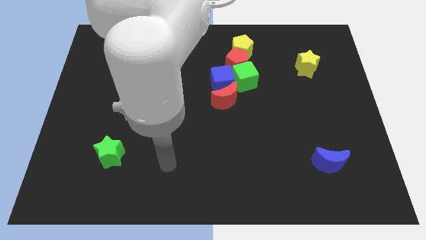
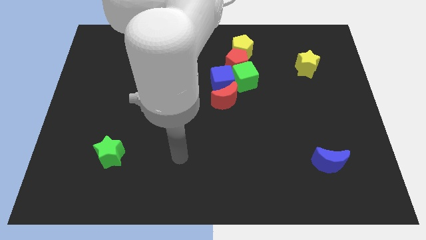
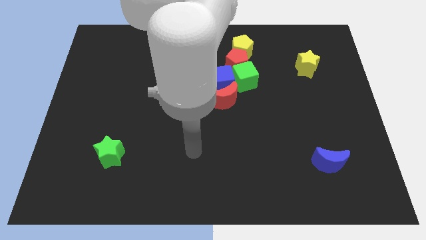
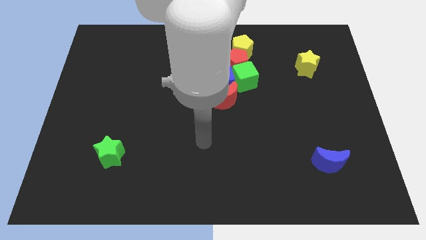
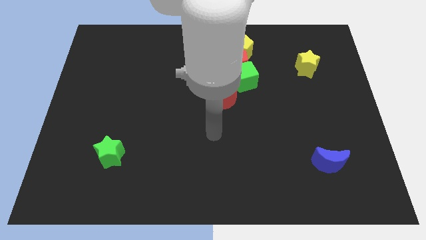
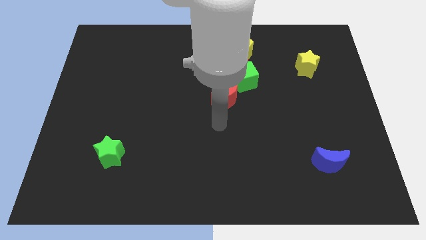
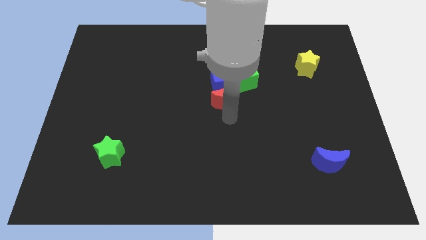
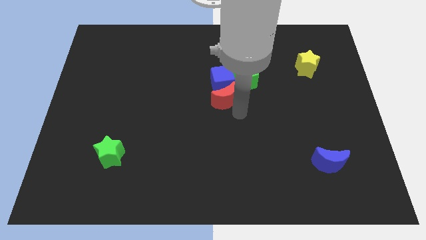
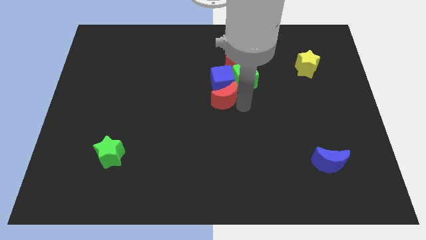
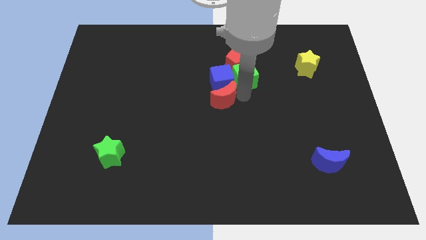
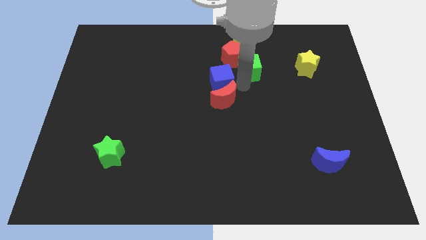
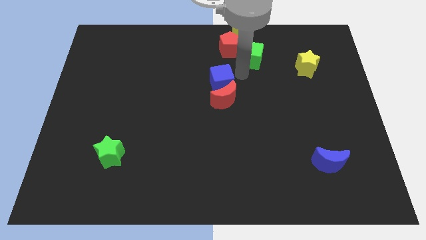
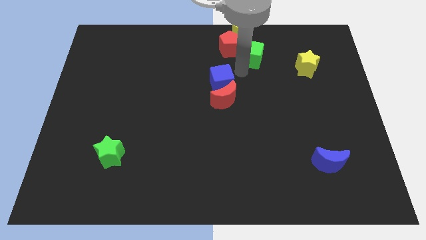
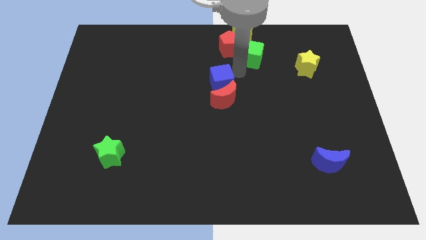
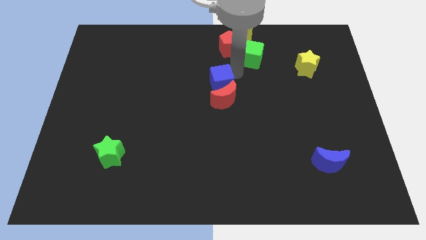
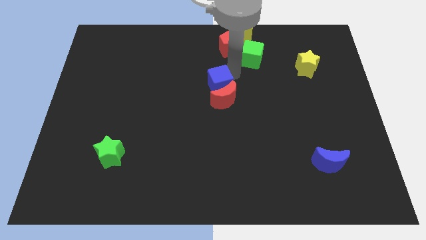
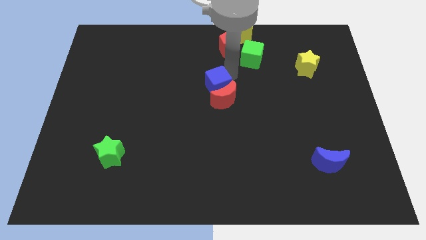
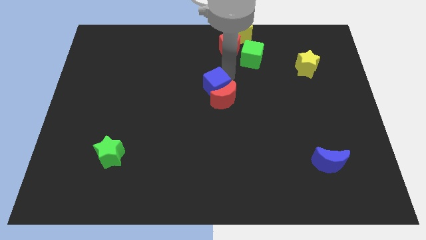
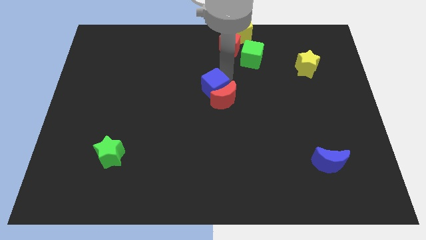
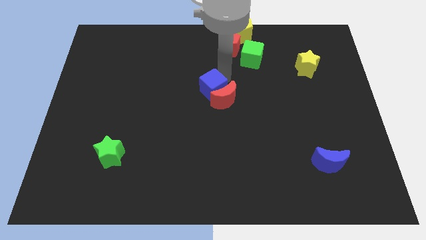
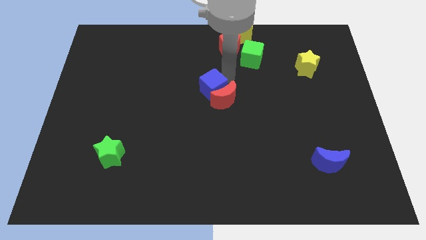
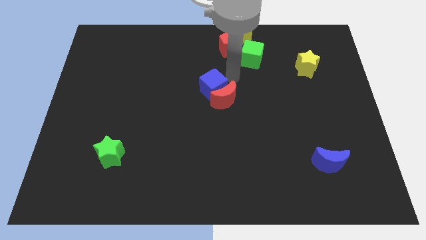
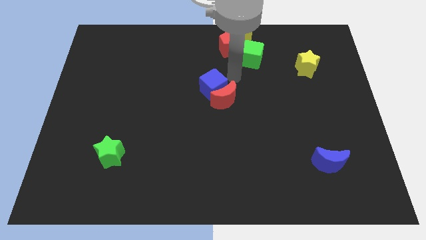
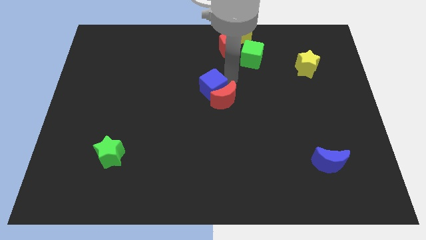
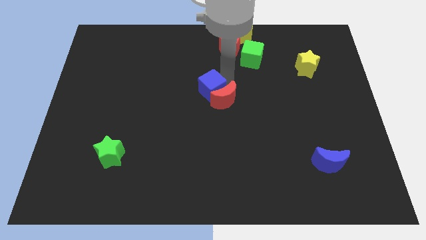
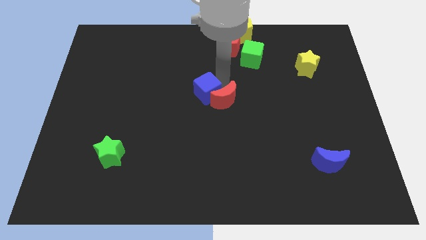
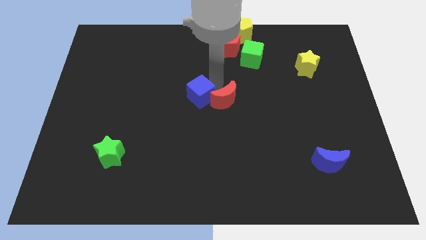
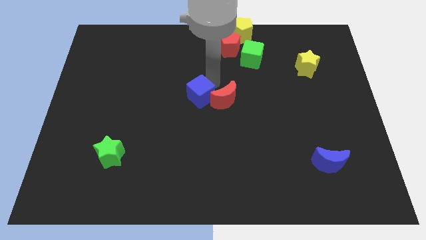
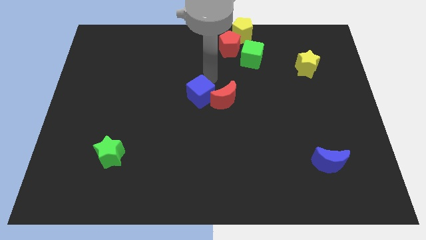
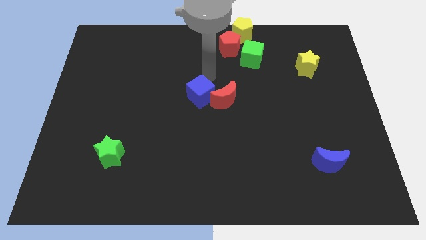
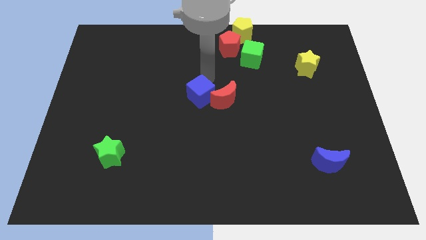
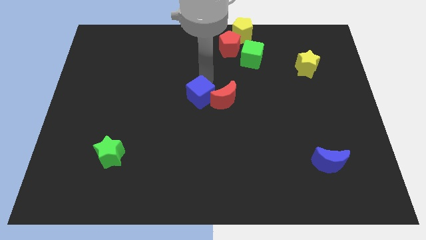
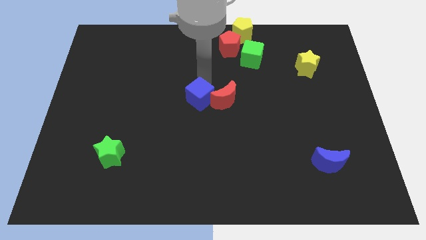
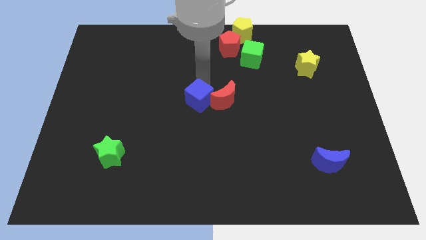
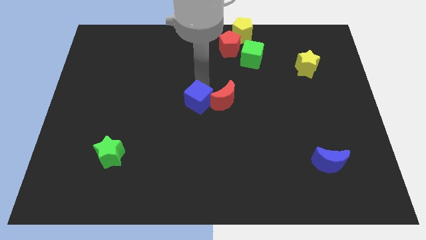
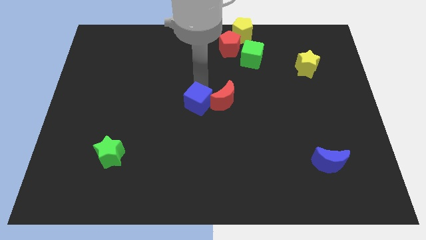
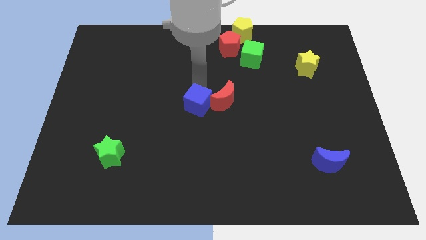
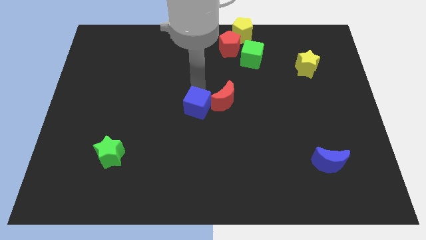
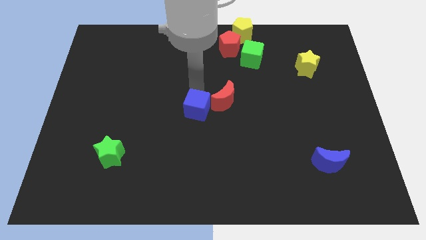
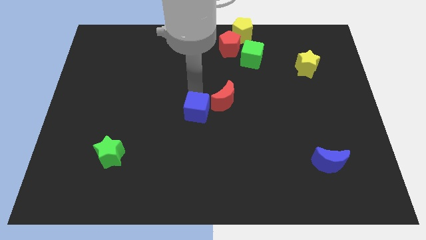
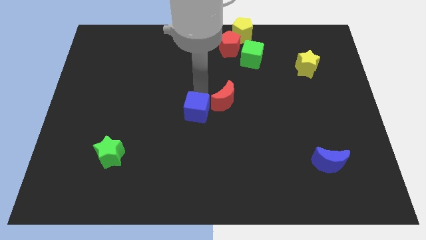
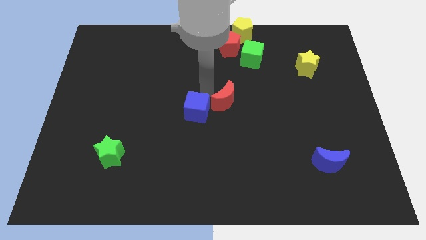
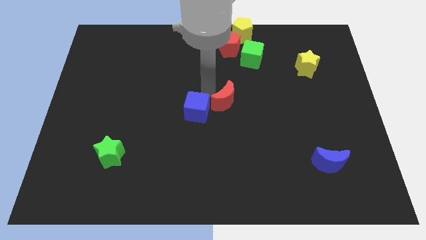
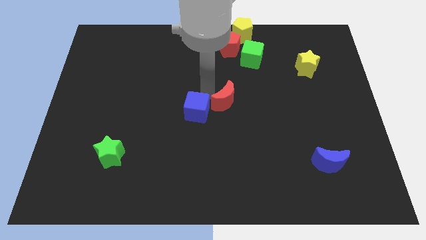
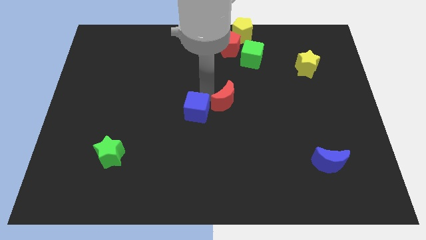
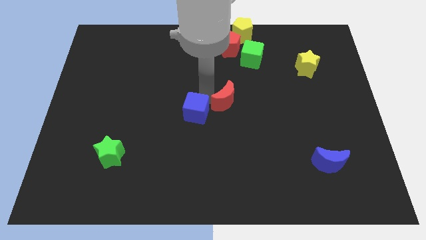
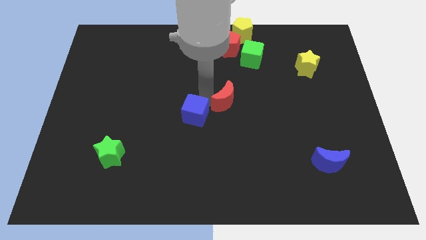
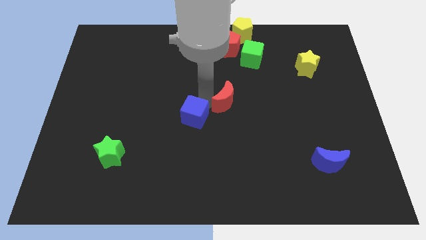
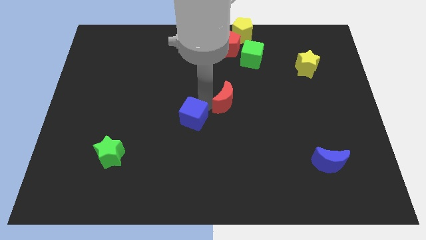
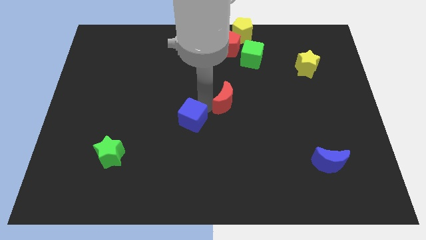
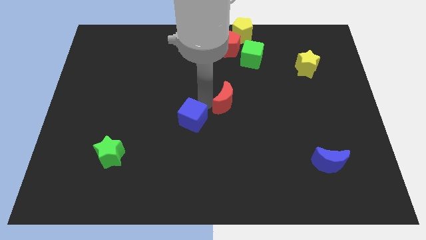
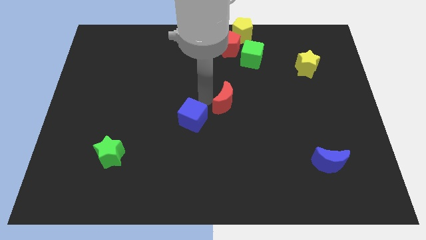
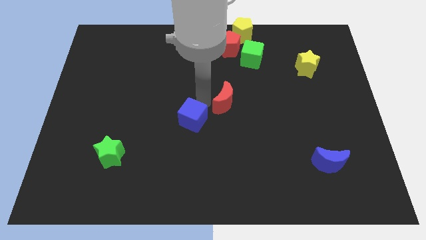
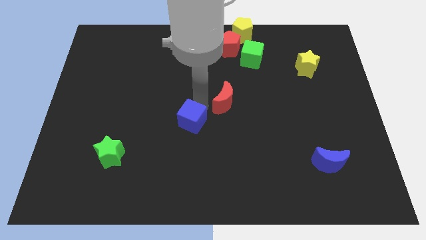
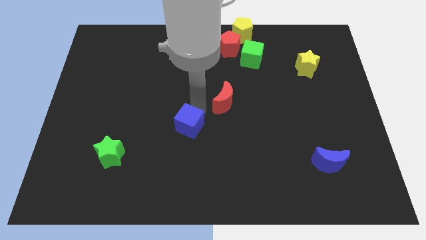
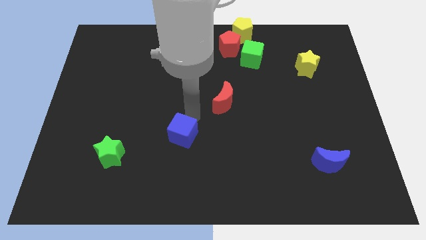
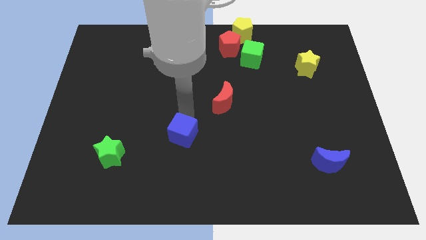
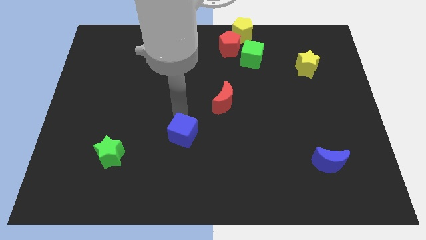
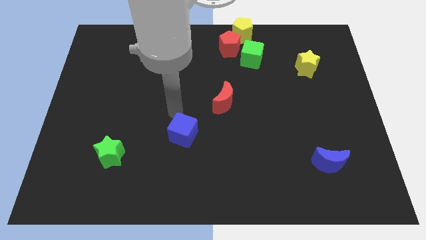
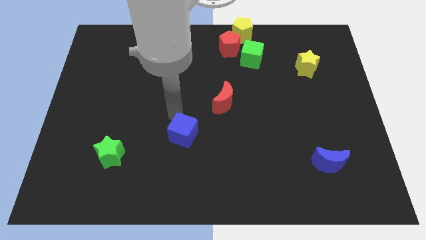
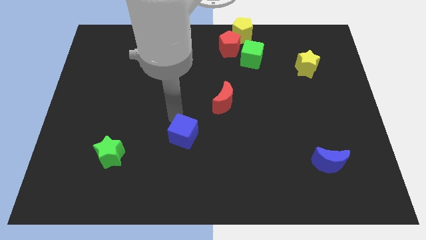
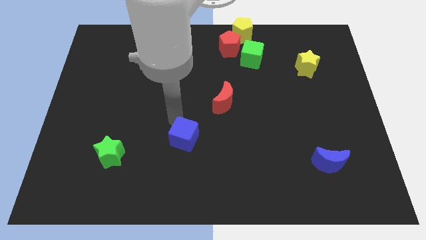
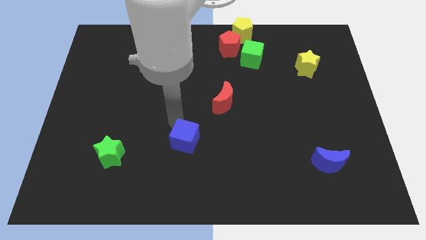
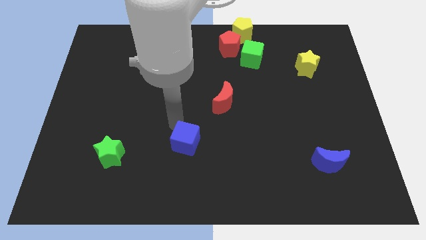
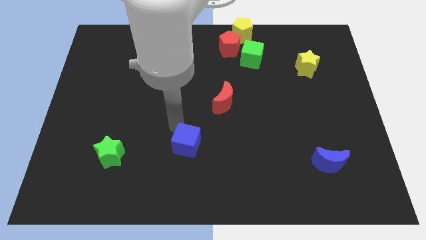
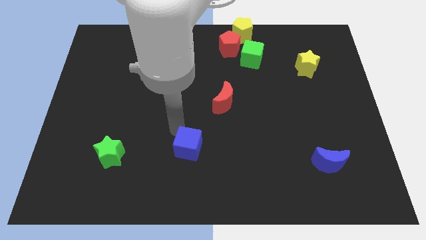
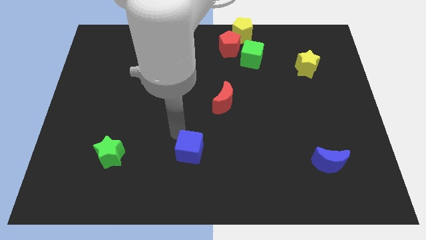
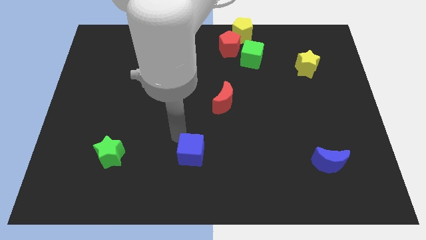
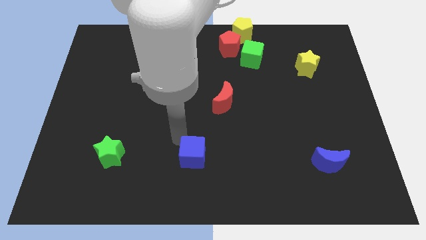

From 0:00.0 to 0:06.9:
put the blue cube to the bottom side
